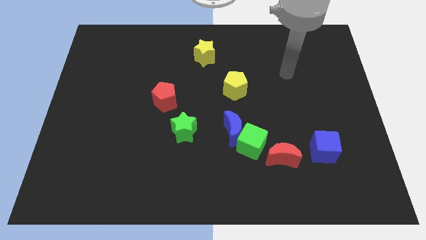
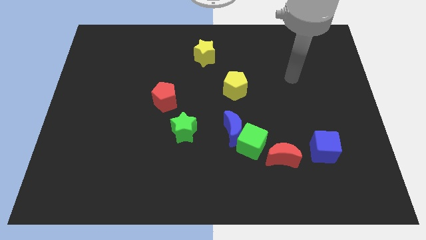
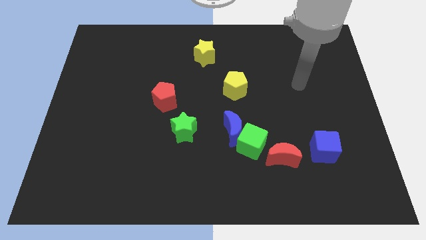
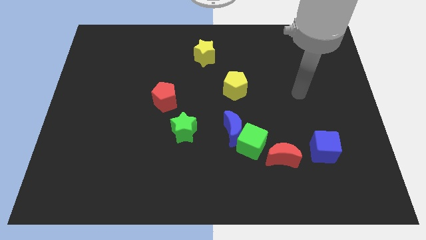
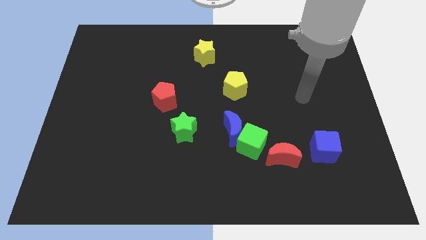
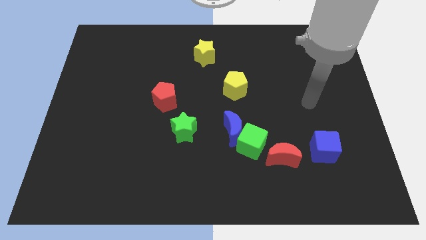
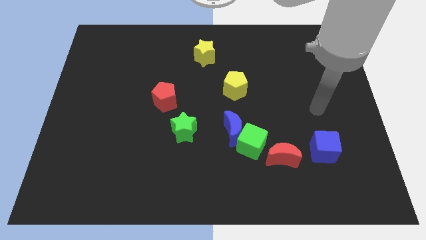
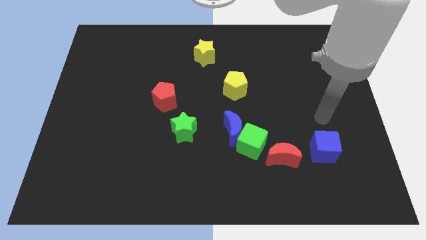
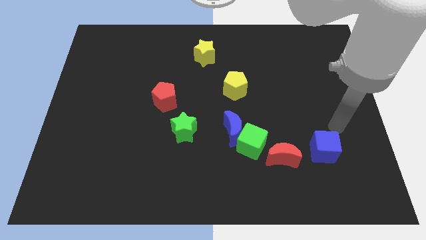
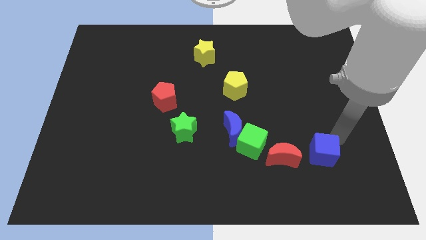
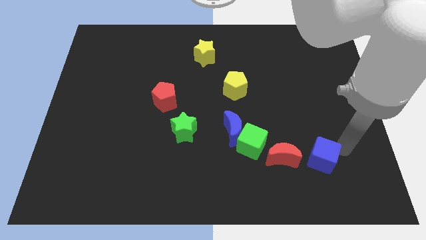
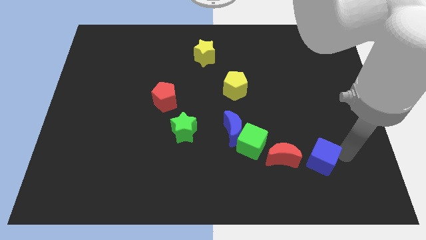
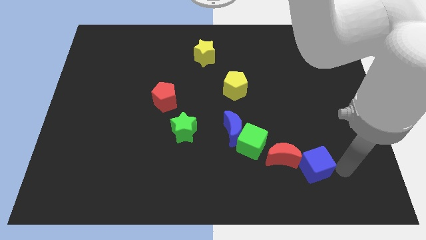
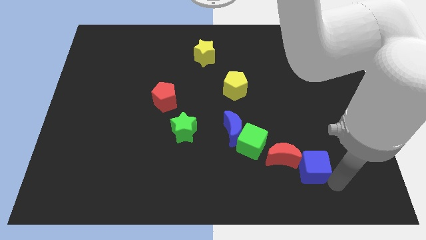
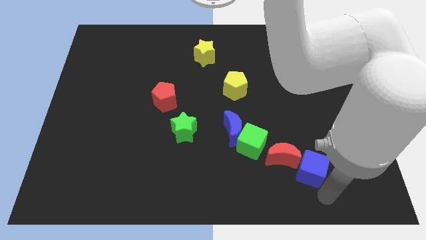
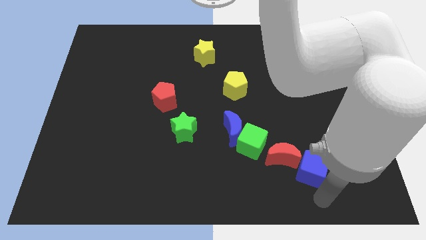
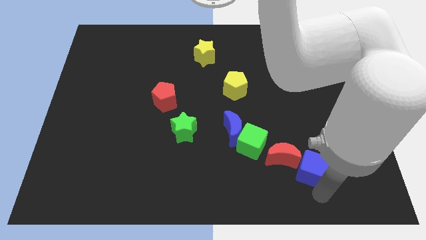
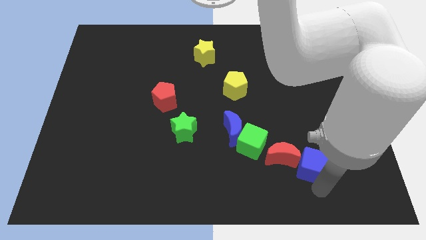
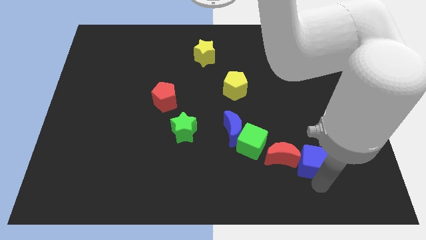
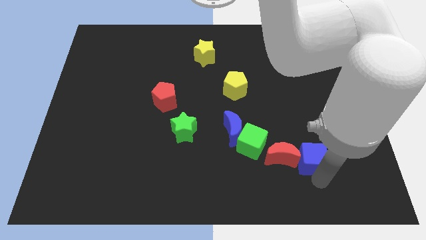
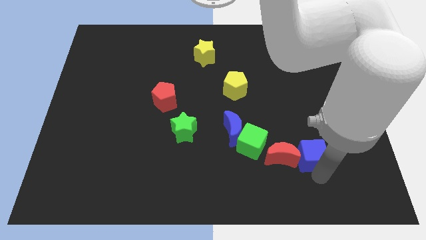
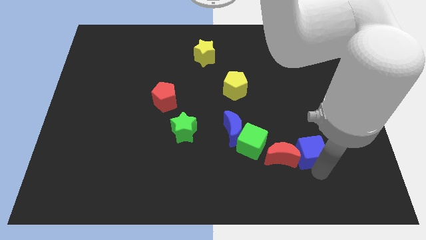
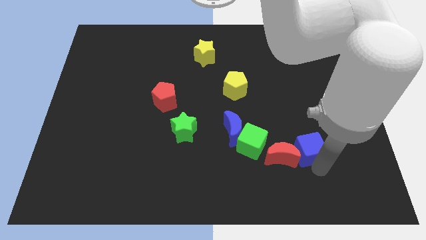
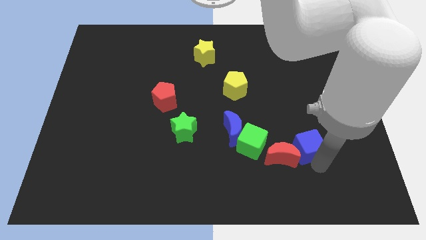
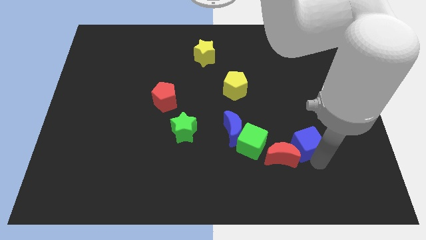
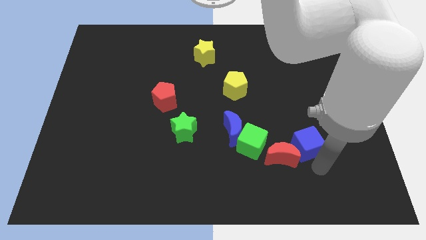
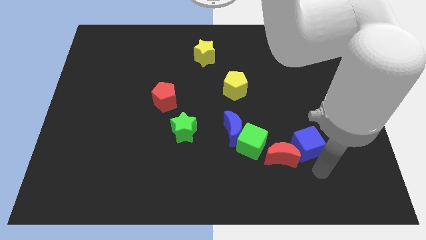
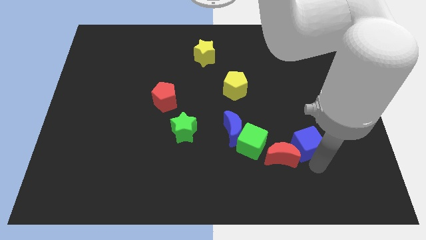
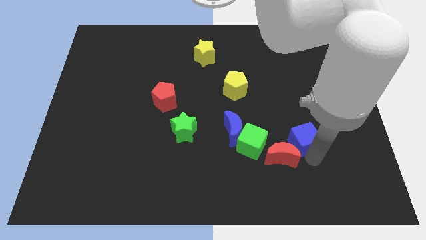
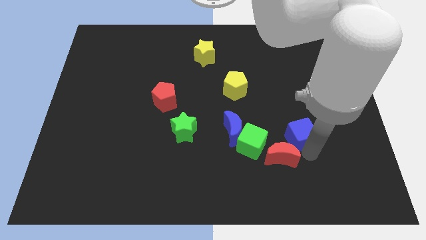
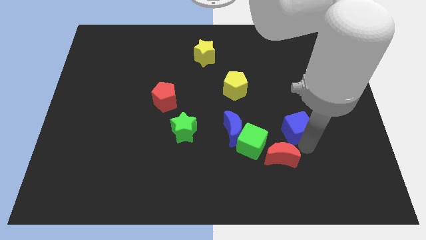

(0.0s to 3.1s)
slide the blue cube up and left slightly

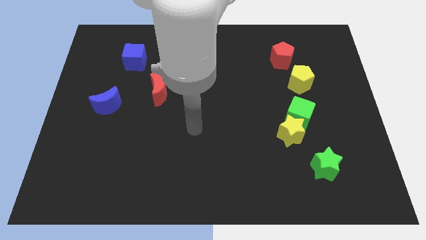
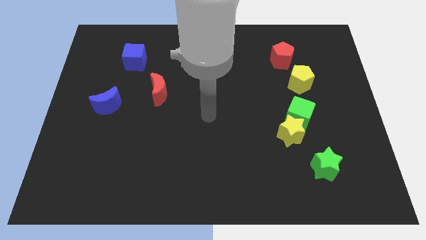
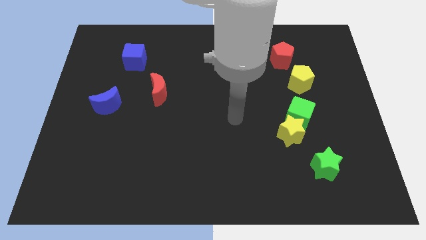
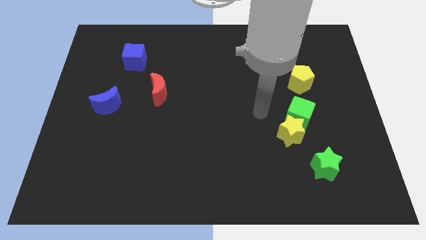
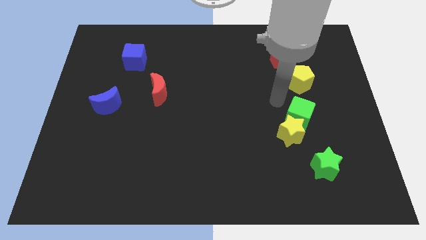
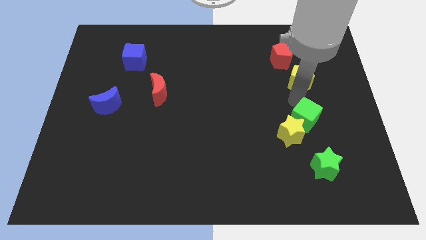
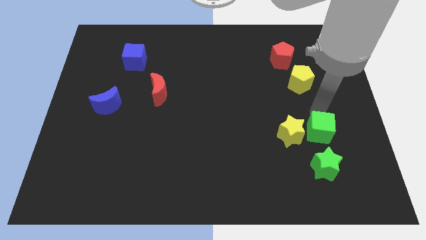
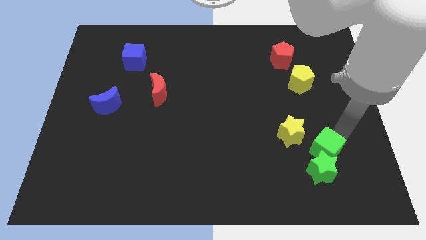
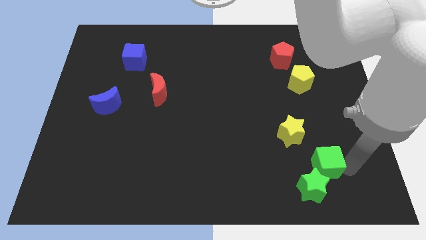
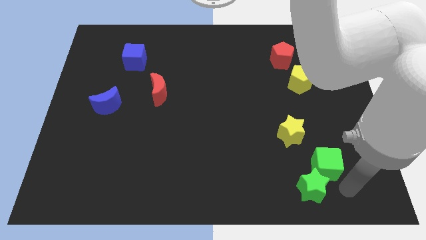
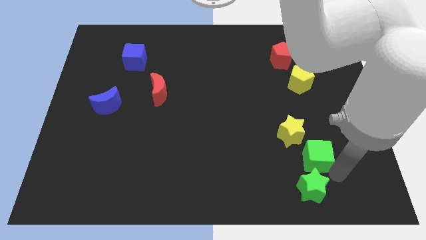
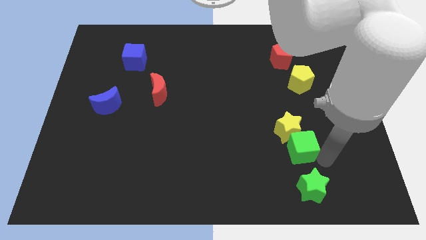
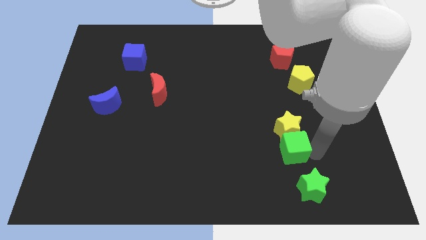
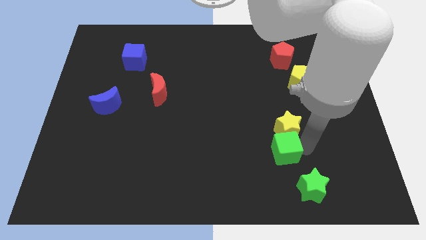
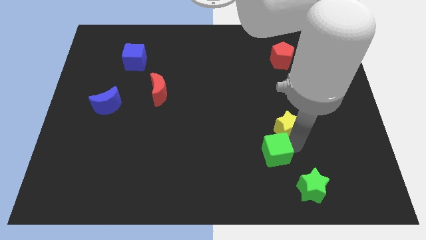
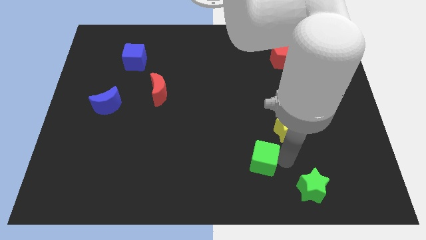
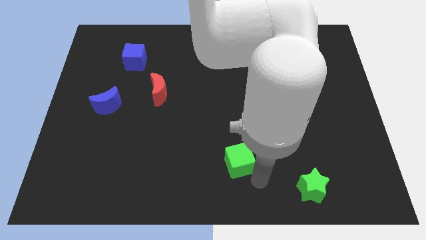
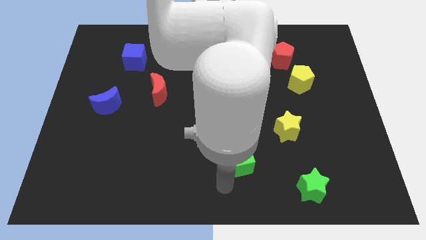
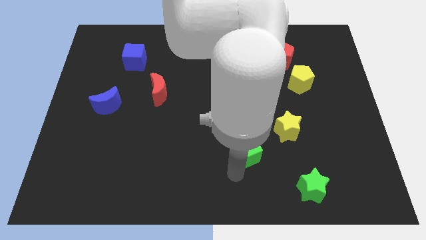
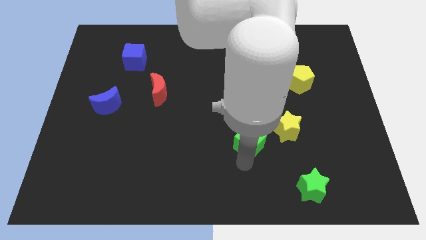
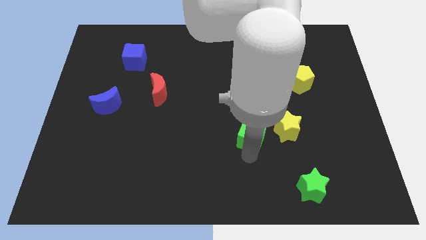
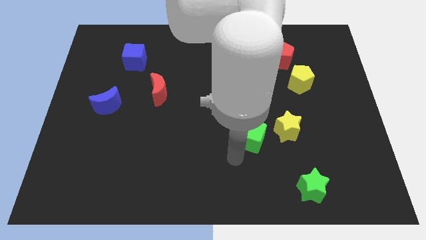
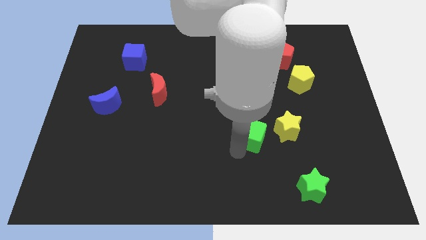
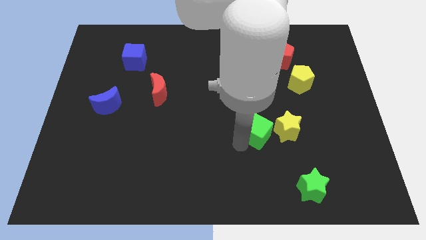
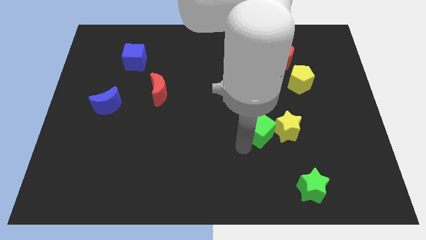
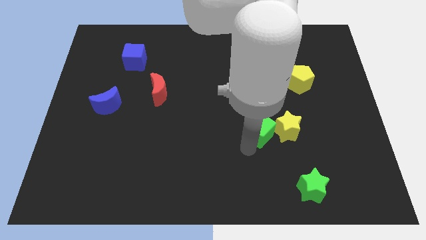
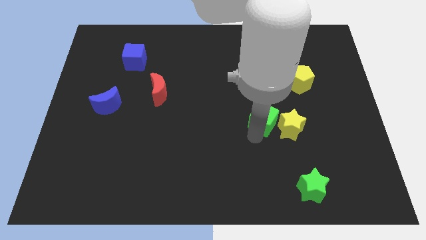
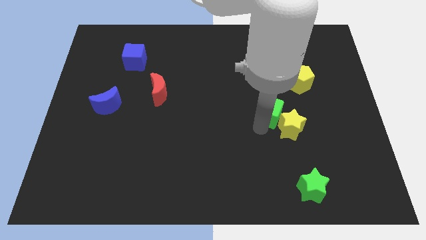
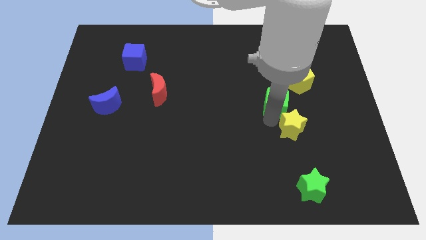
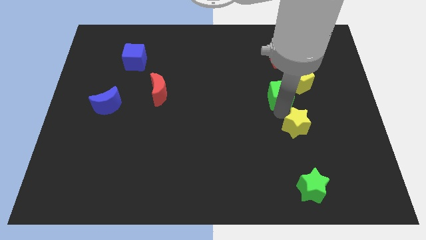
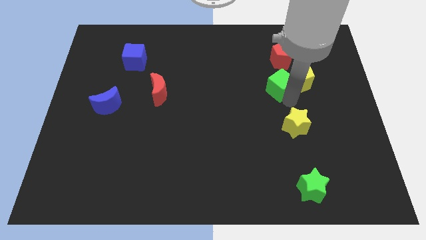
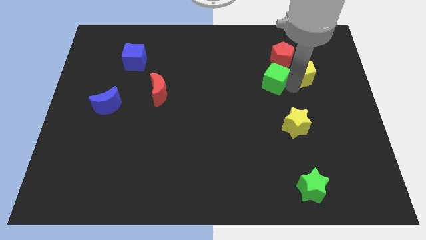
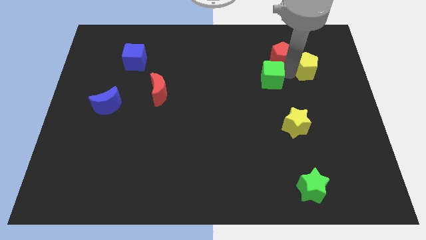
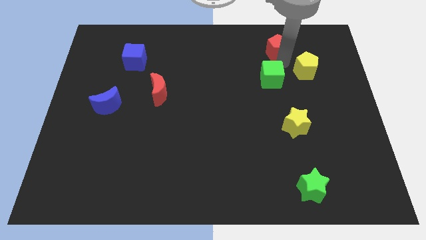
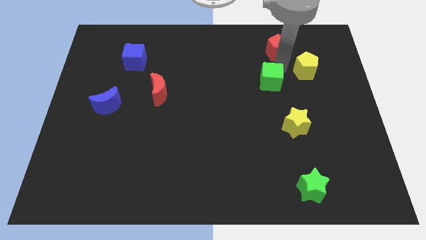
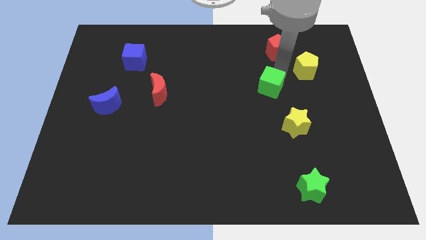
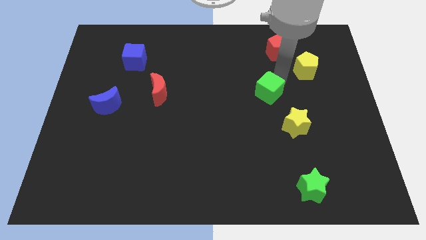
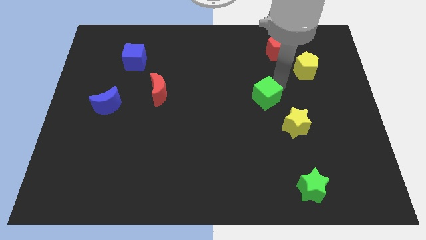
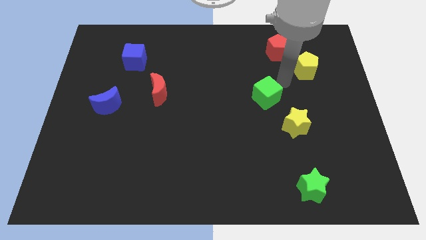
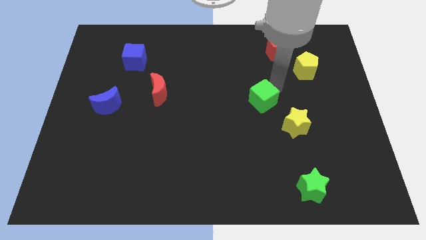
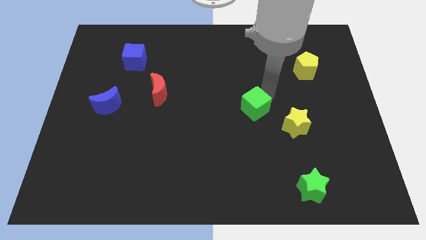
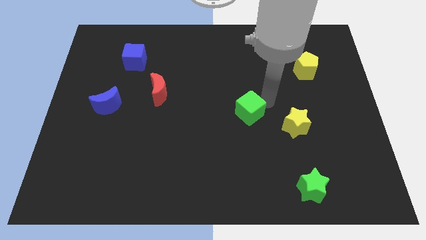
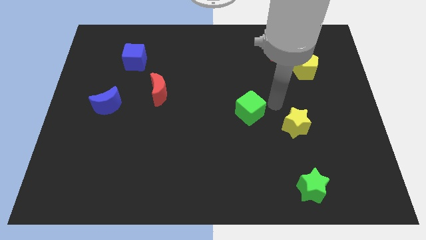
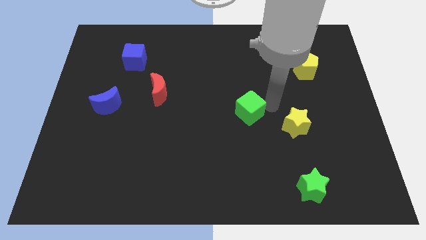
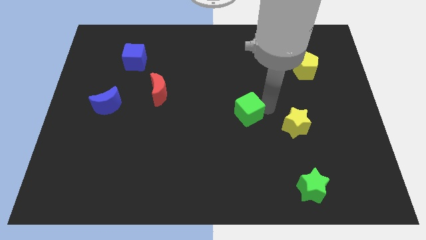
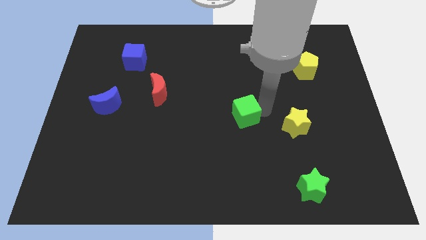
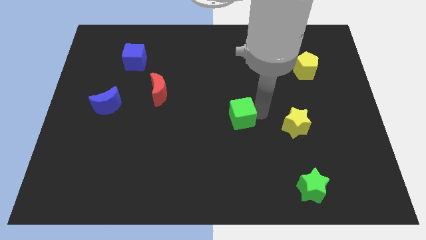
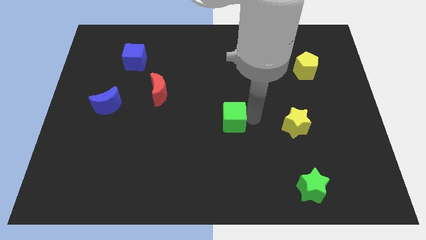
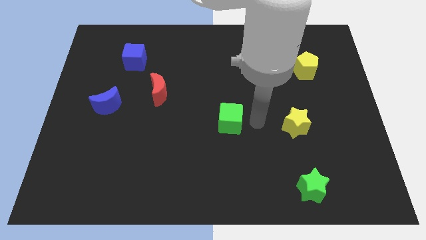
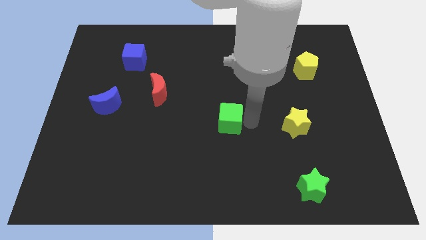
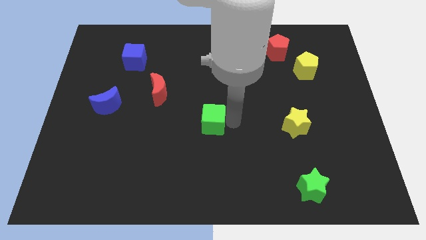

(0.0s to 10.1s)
push the green cube left
